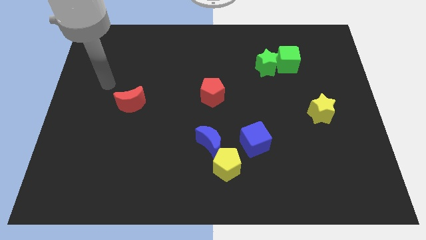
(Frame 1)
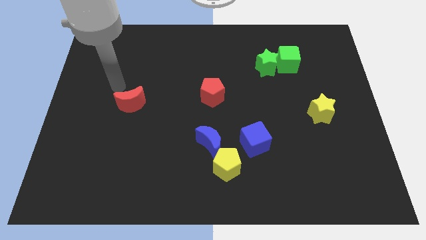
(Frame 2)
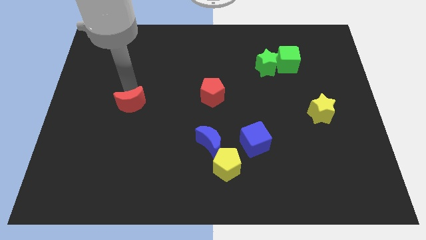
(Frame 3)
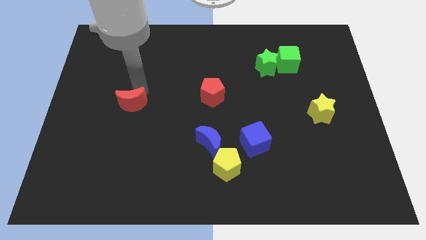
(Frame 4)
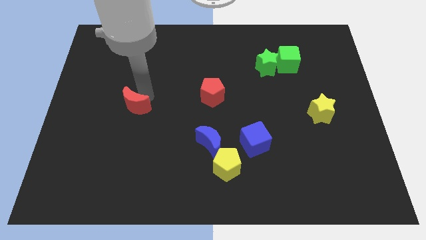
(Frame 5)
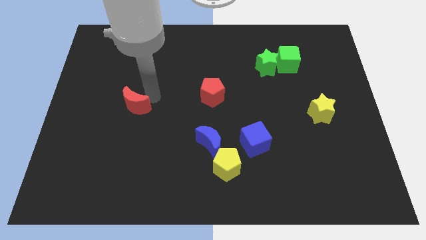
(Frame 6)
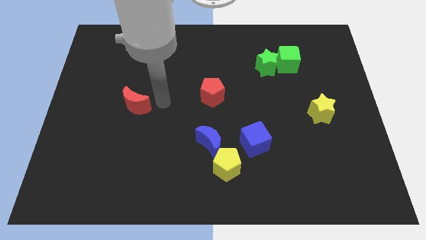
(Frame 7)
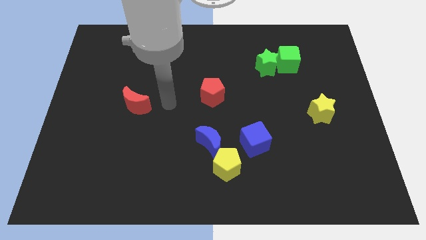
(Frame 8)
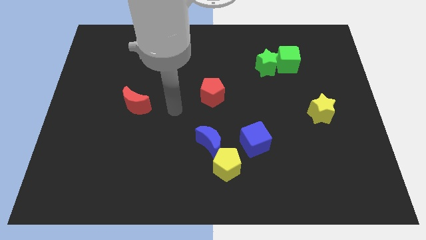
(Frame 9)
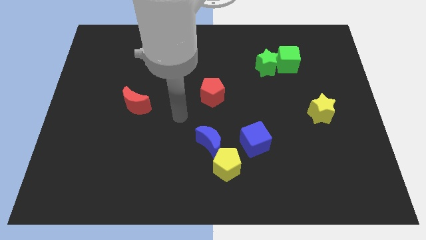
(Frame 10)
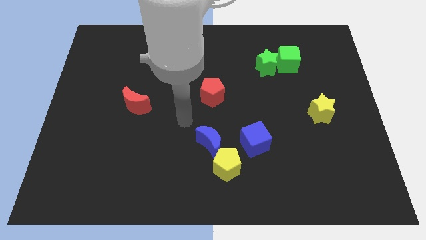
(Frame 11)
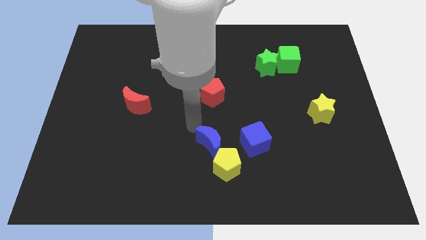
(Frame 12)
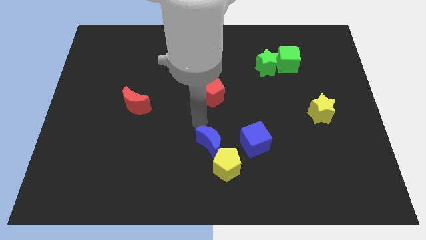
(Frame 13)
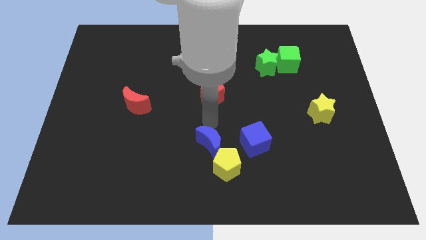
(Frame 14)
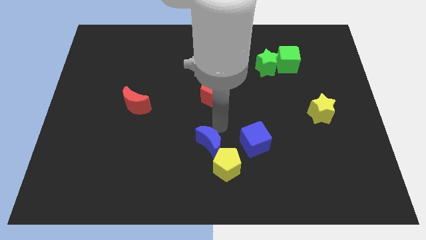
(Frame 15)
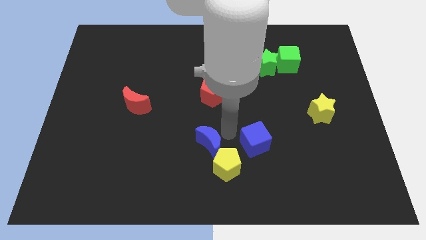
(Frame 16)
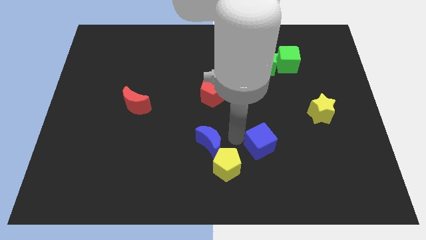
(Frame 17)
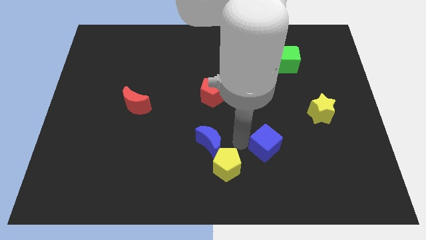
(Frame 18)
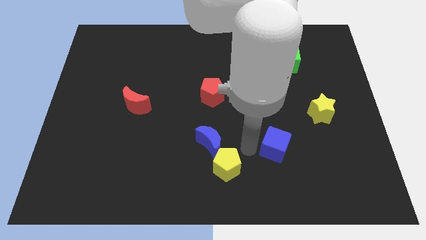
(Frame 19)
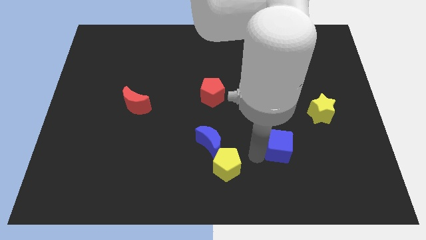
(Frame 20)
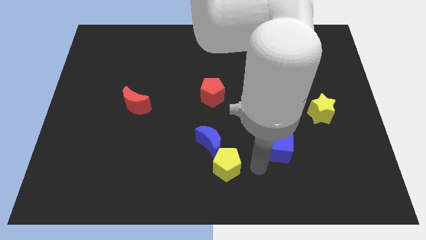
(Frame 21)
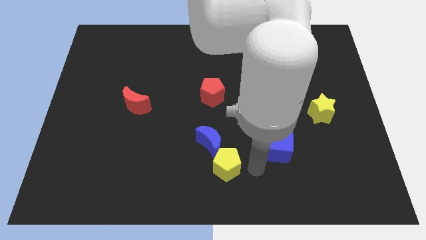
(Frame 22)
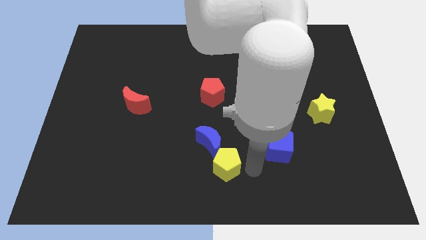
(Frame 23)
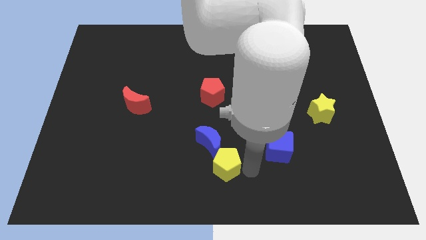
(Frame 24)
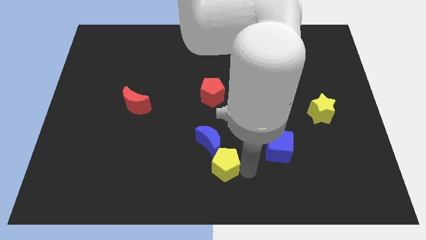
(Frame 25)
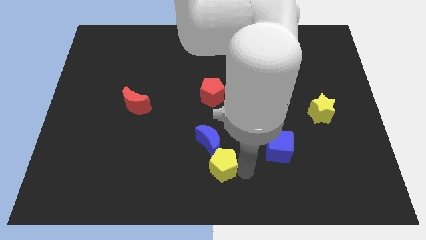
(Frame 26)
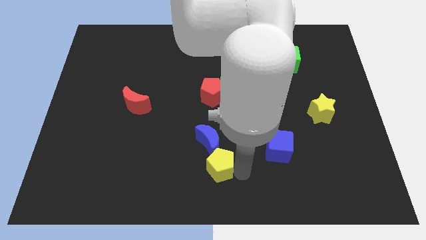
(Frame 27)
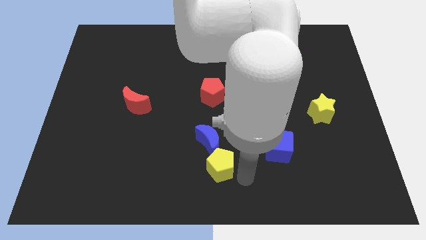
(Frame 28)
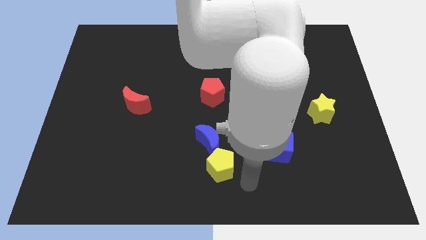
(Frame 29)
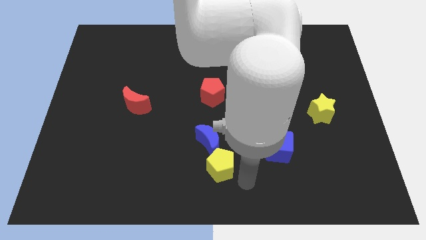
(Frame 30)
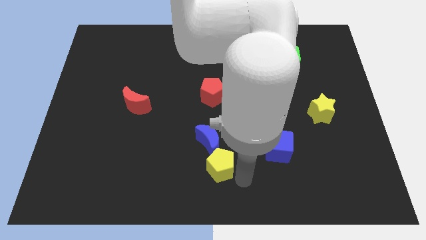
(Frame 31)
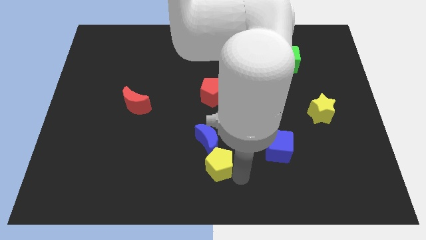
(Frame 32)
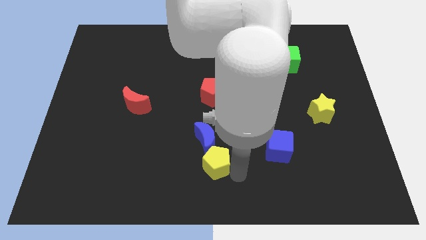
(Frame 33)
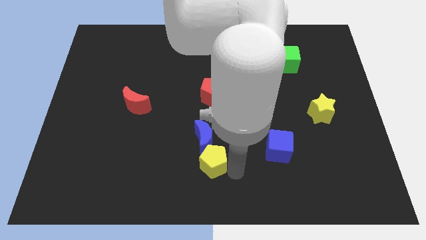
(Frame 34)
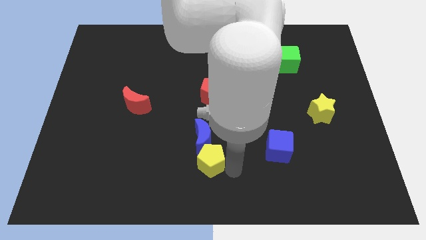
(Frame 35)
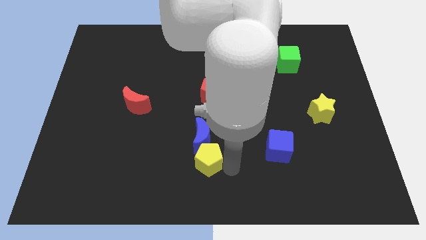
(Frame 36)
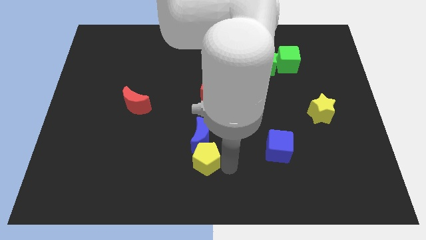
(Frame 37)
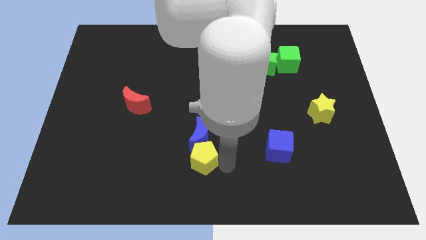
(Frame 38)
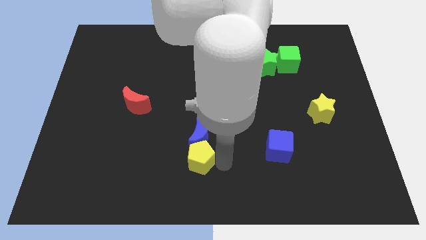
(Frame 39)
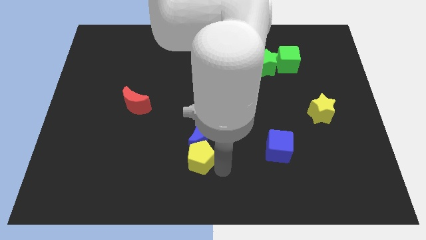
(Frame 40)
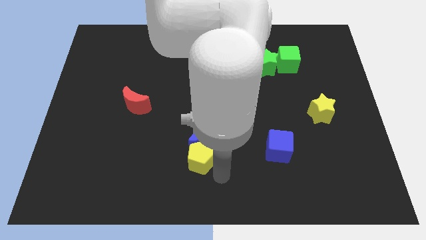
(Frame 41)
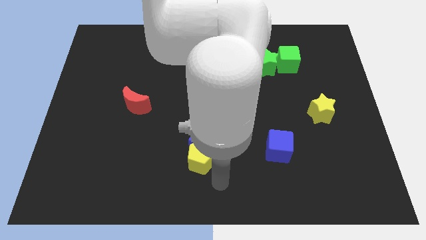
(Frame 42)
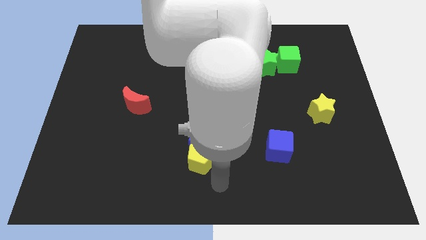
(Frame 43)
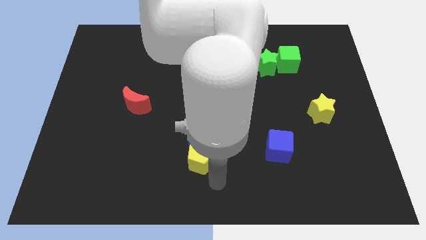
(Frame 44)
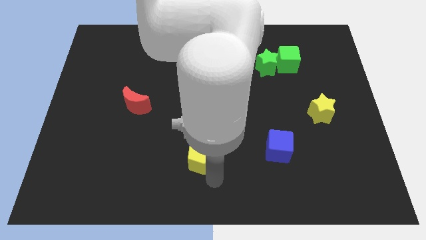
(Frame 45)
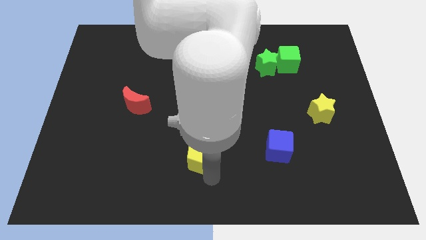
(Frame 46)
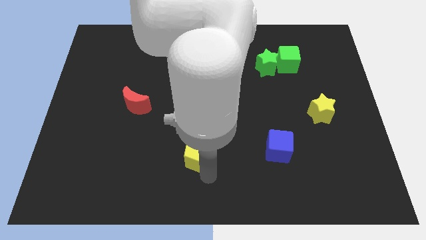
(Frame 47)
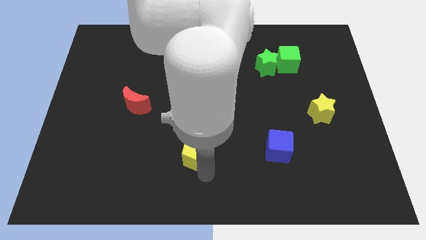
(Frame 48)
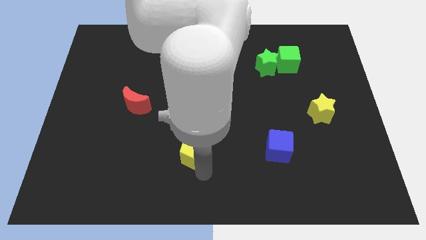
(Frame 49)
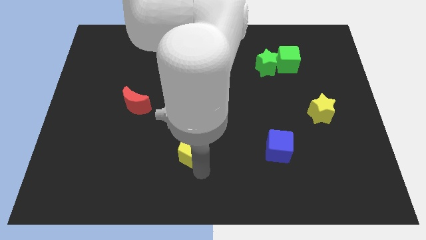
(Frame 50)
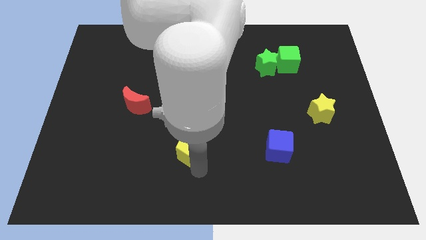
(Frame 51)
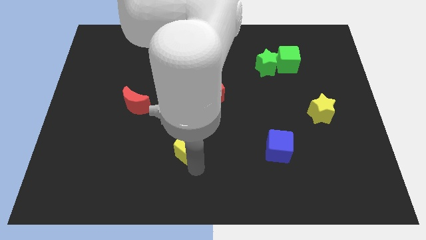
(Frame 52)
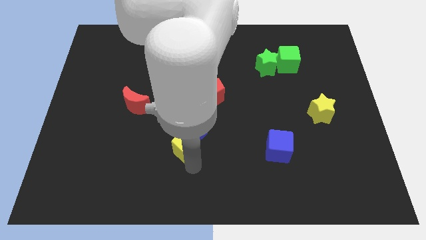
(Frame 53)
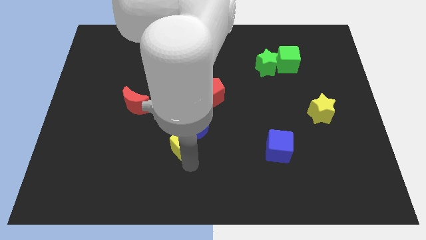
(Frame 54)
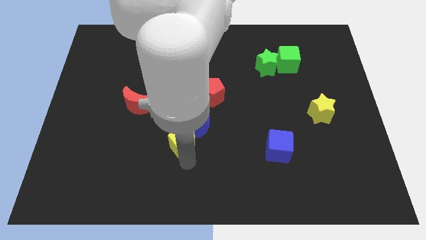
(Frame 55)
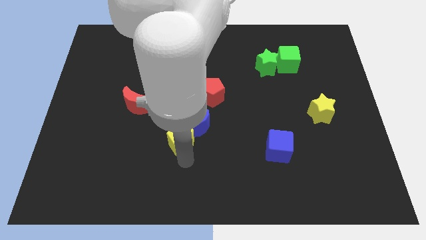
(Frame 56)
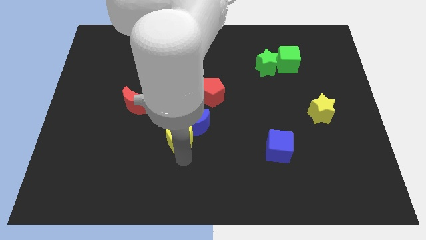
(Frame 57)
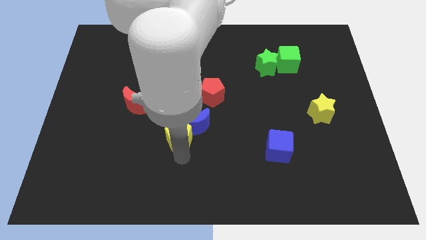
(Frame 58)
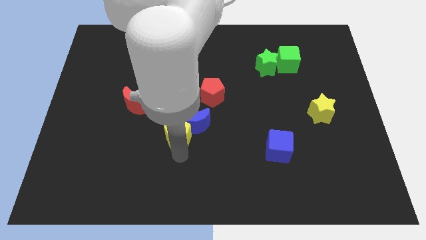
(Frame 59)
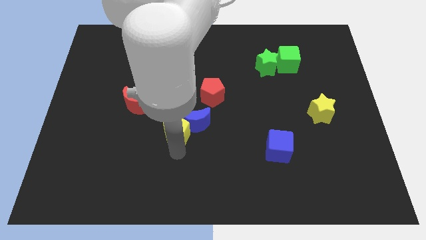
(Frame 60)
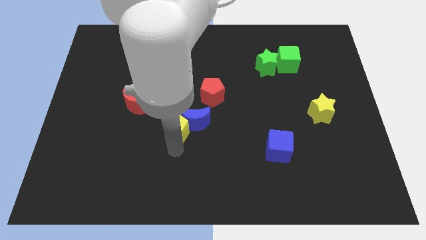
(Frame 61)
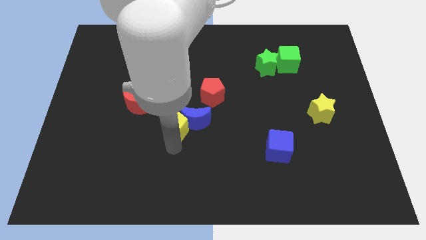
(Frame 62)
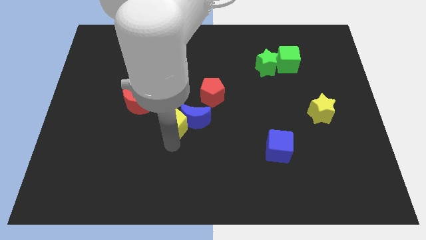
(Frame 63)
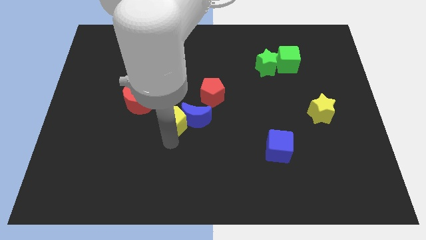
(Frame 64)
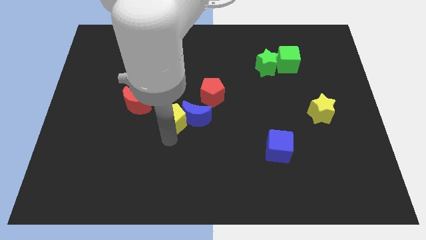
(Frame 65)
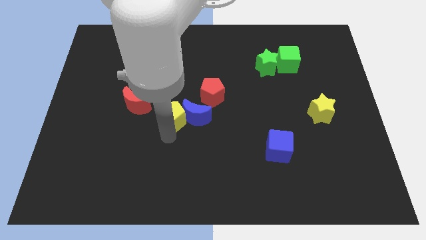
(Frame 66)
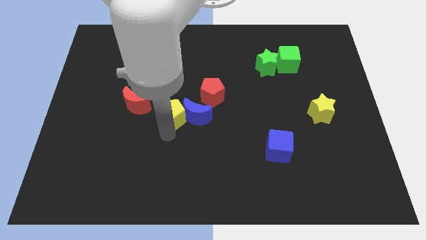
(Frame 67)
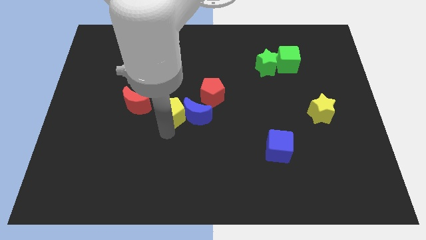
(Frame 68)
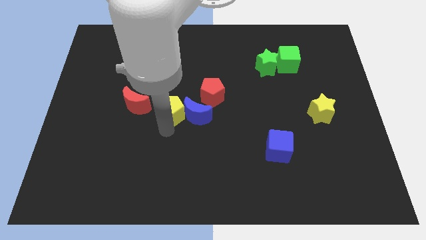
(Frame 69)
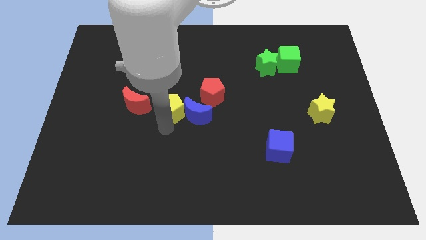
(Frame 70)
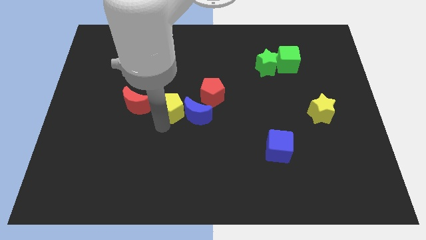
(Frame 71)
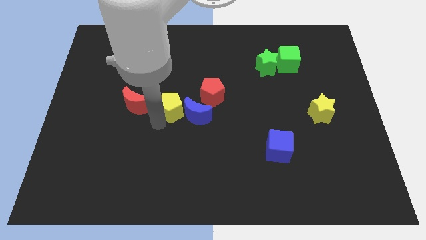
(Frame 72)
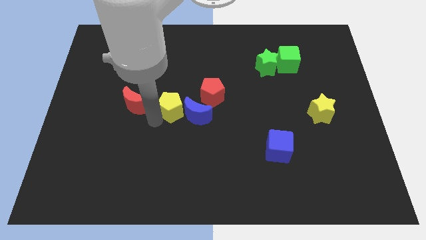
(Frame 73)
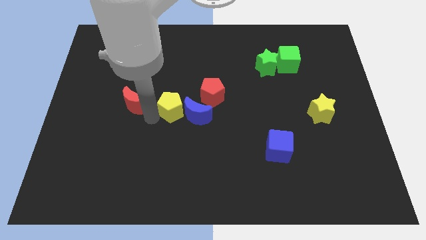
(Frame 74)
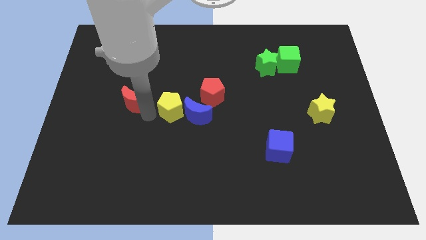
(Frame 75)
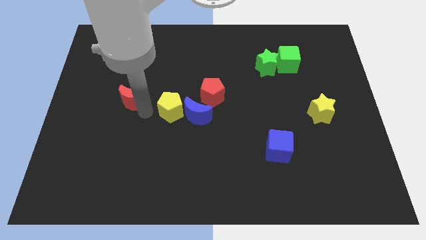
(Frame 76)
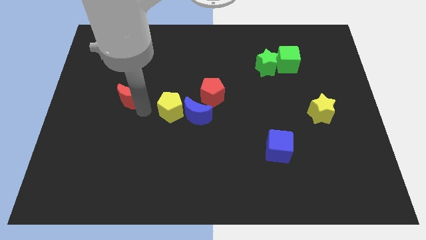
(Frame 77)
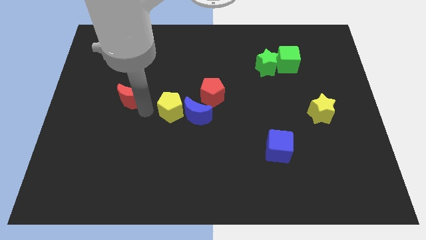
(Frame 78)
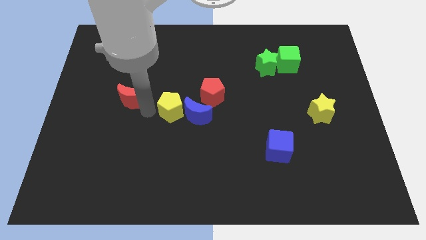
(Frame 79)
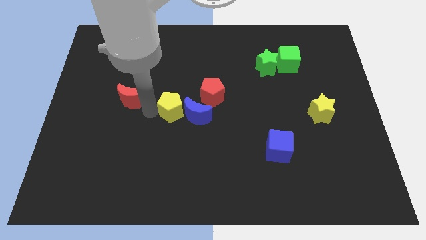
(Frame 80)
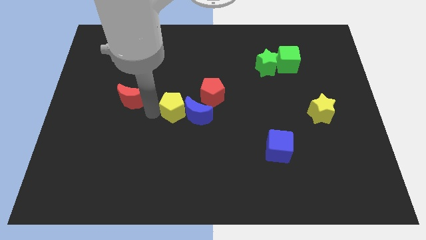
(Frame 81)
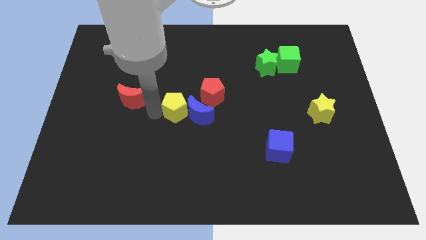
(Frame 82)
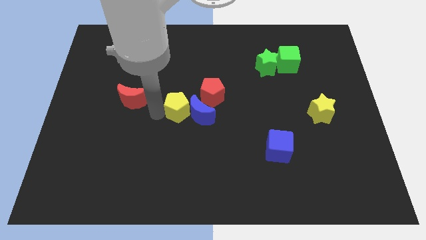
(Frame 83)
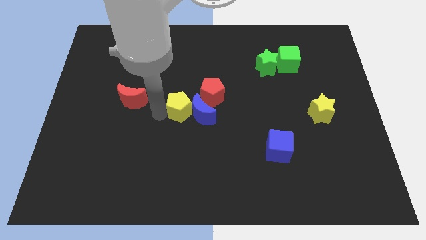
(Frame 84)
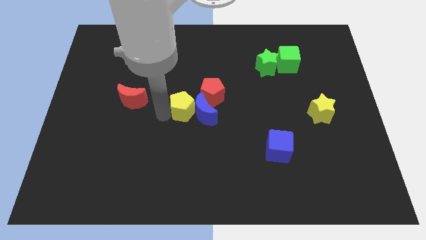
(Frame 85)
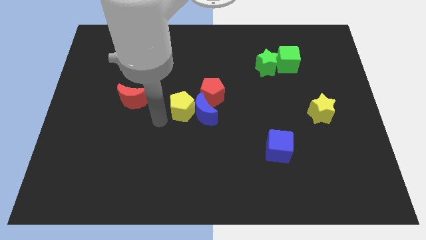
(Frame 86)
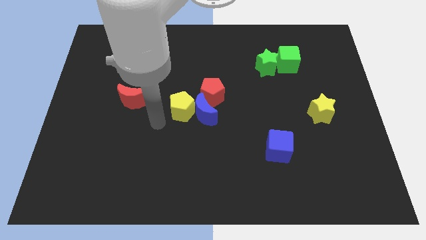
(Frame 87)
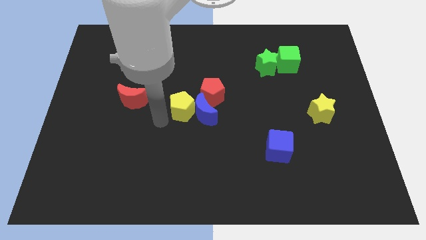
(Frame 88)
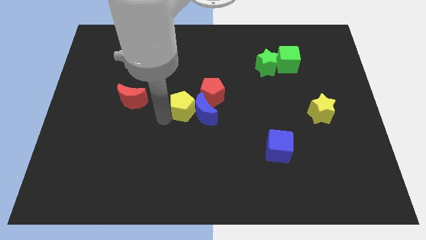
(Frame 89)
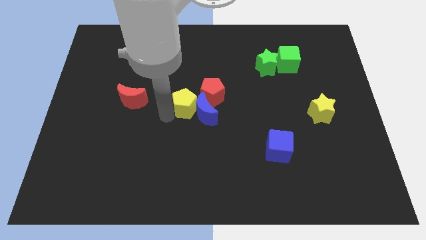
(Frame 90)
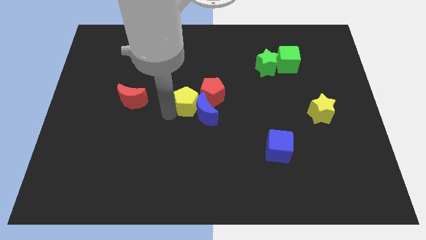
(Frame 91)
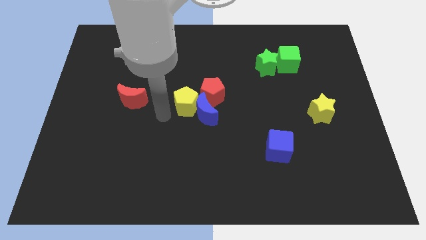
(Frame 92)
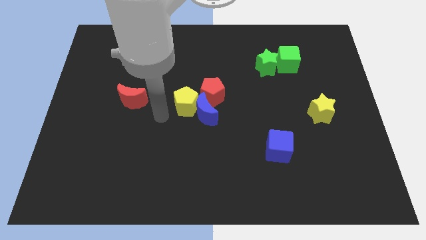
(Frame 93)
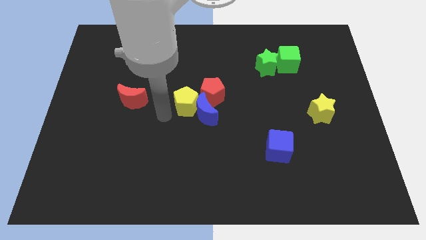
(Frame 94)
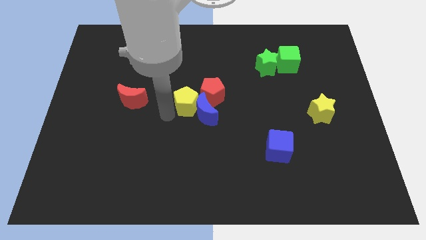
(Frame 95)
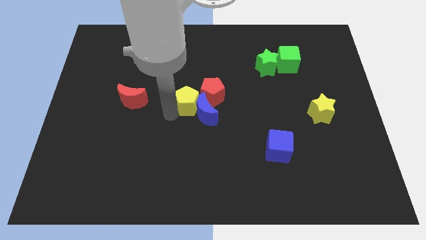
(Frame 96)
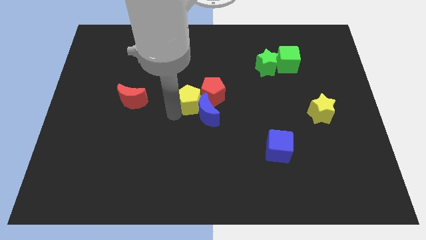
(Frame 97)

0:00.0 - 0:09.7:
put the yellow pentagon next to the red pentagon
